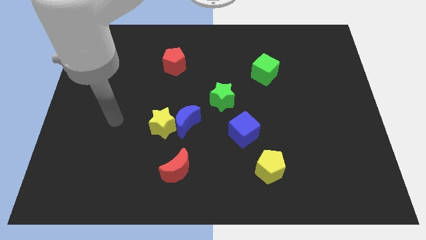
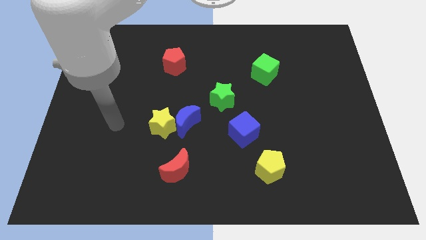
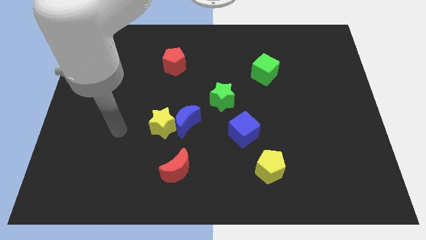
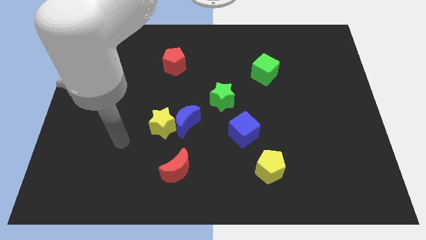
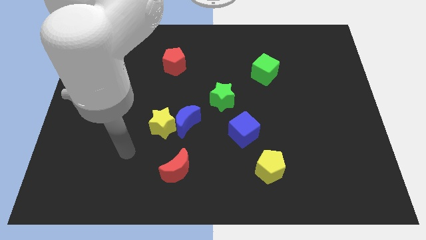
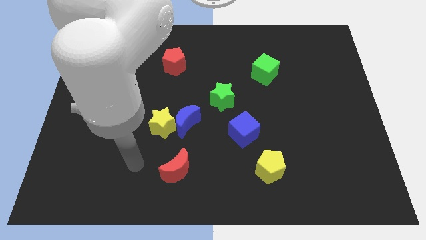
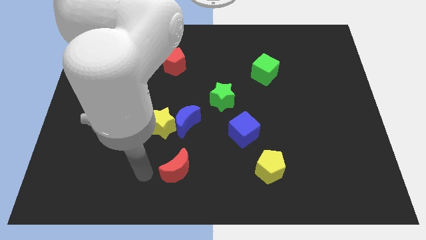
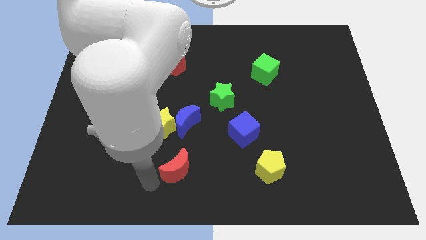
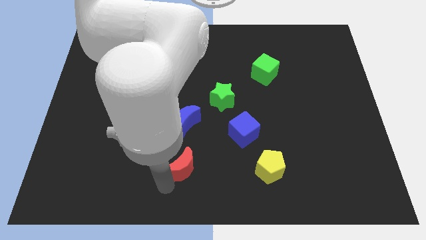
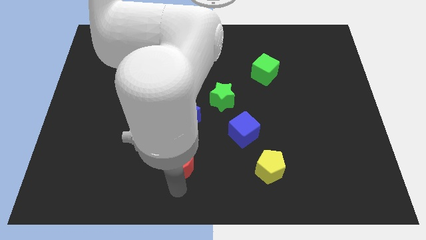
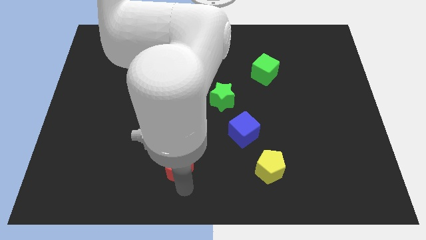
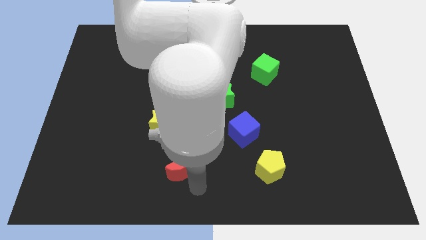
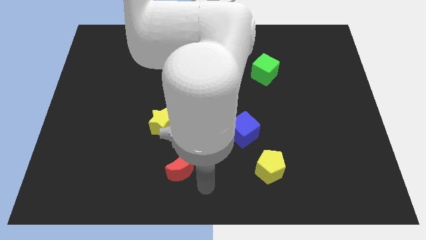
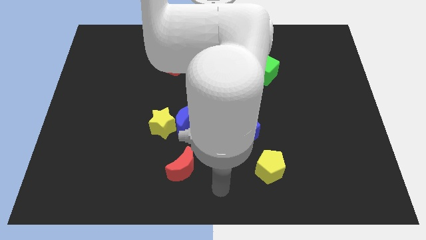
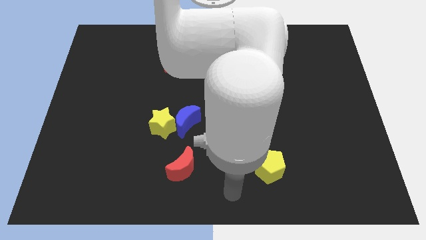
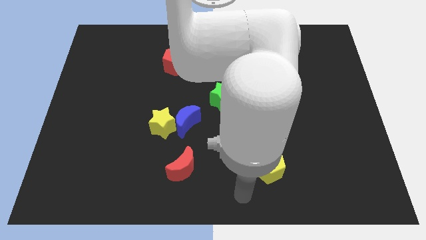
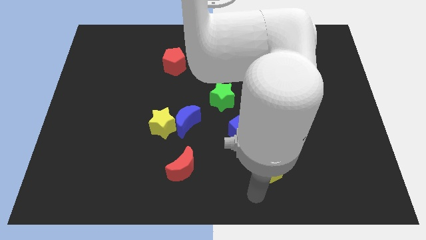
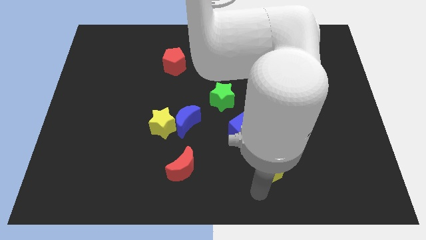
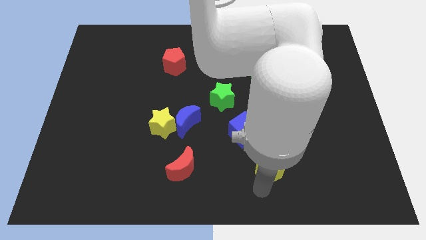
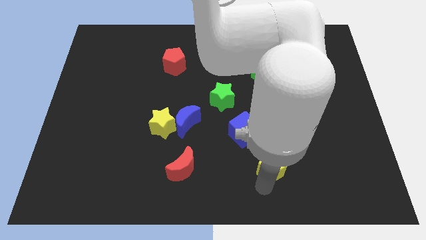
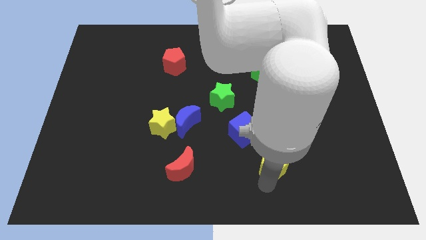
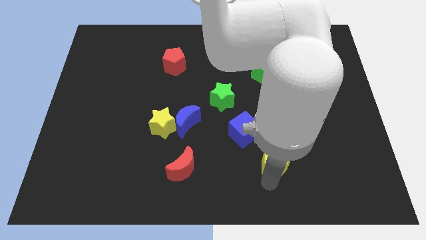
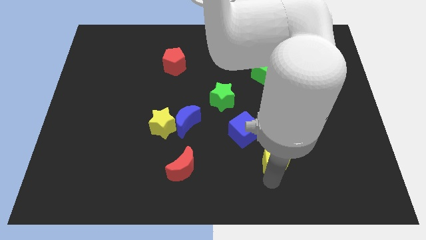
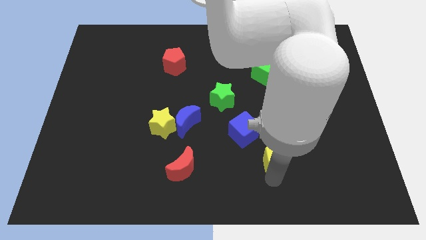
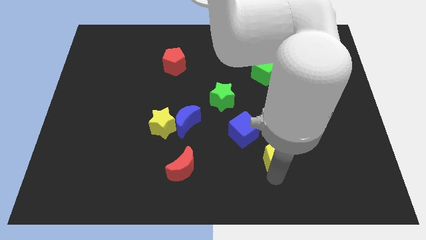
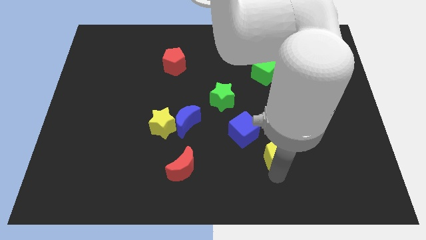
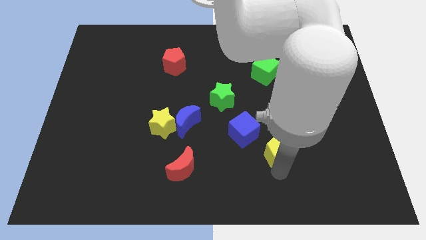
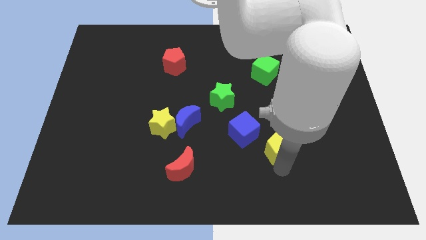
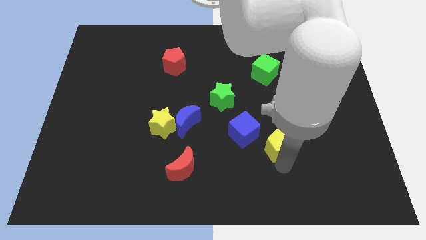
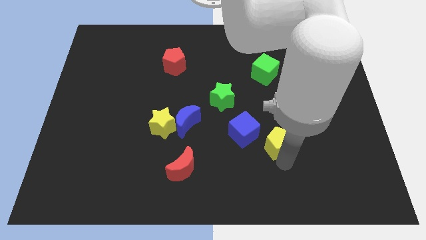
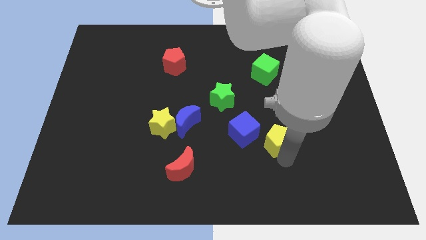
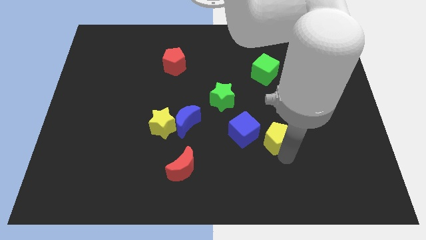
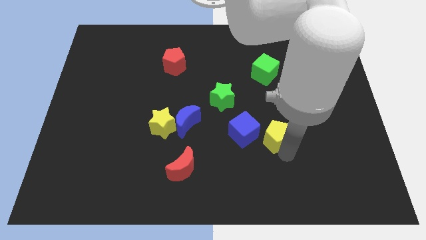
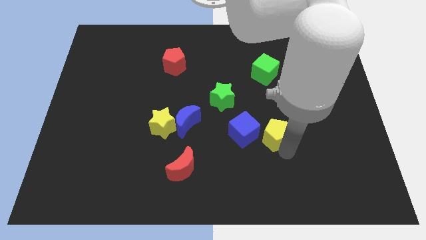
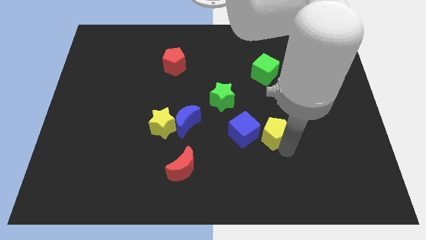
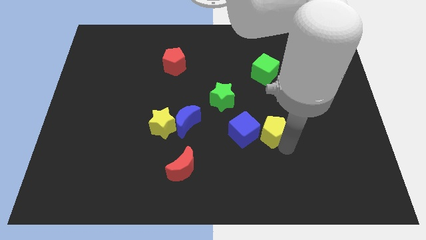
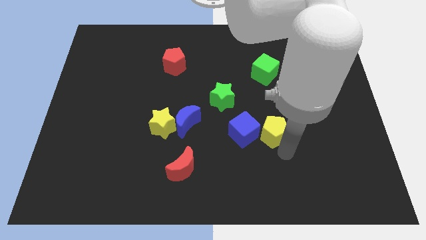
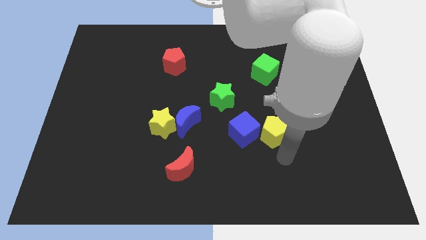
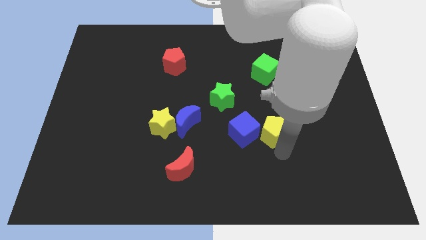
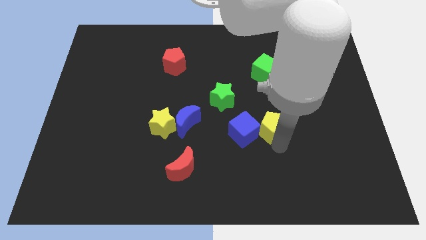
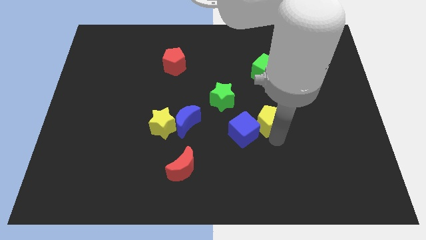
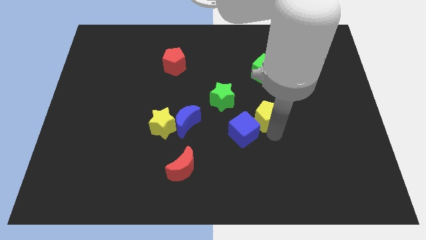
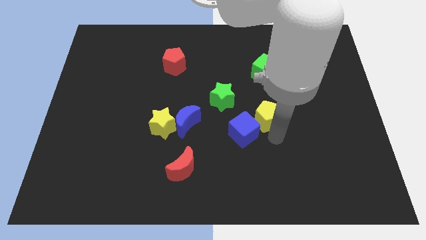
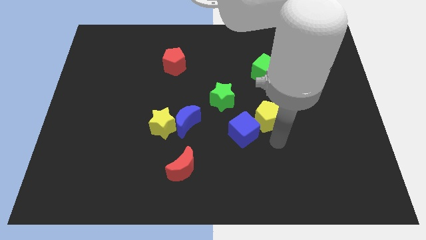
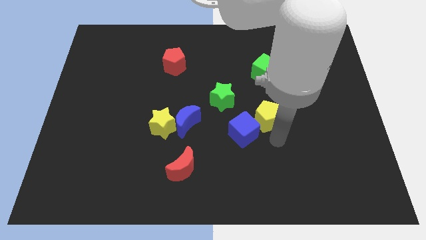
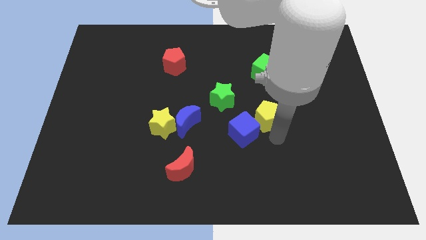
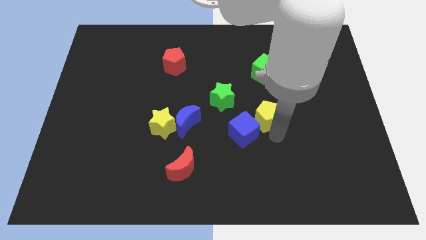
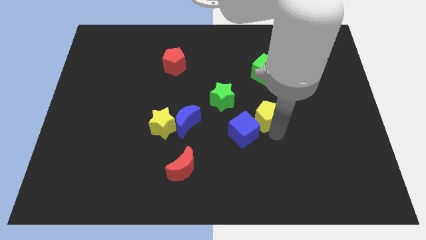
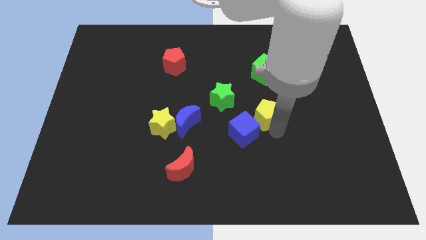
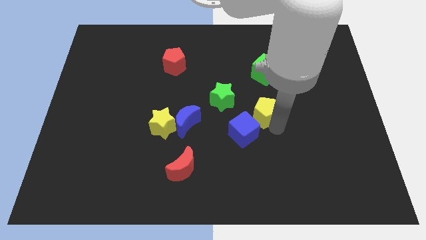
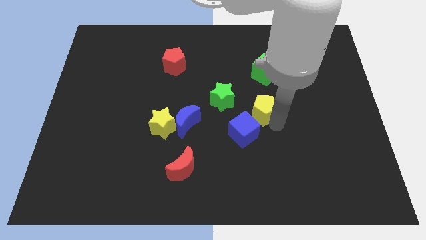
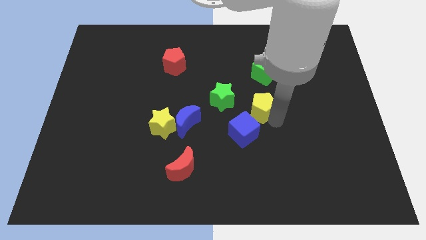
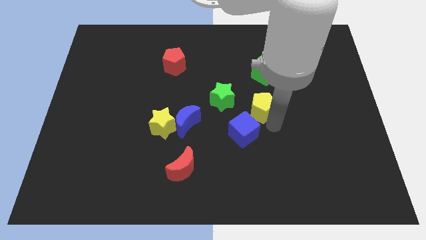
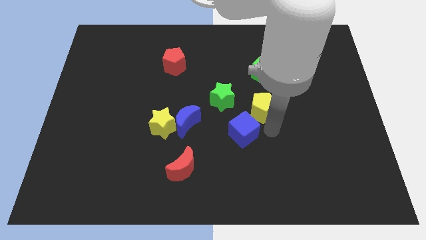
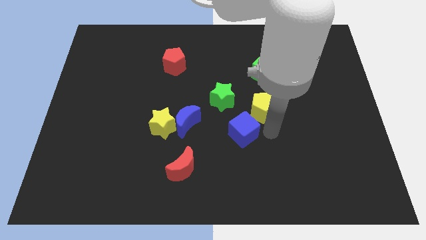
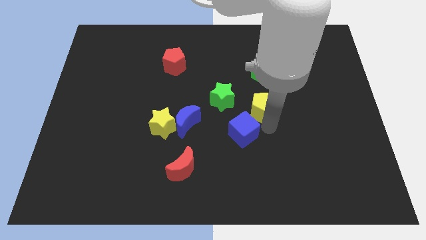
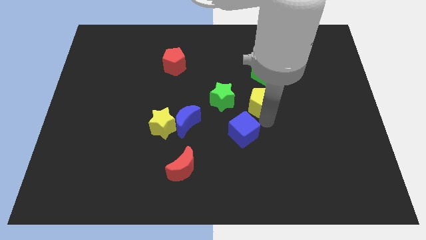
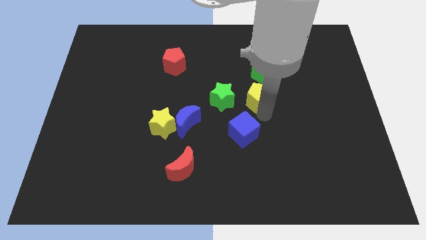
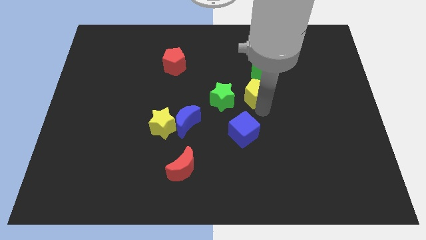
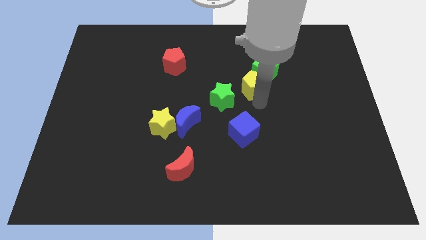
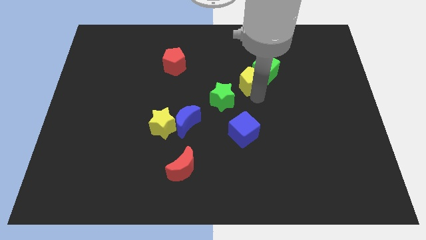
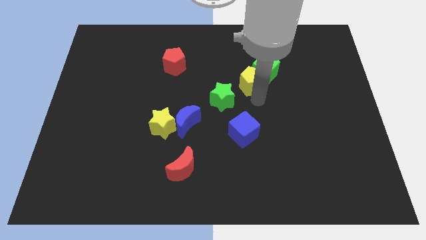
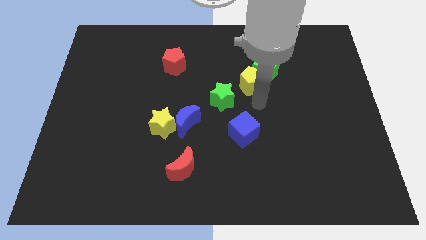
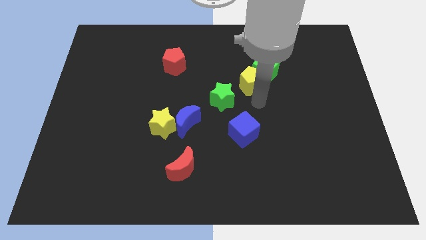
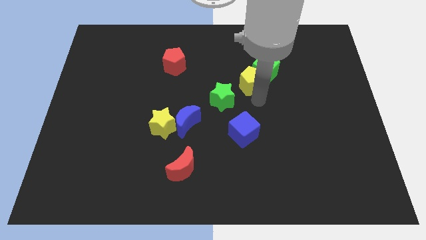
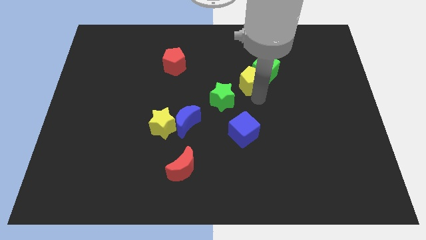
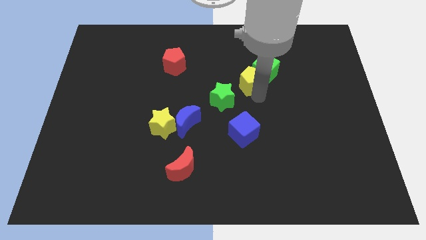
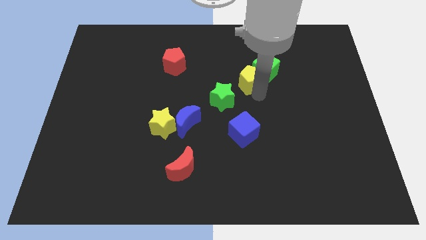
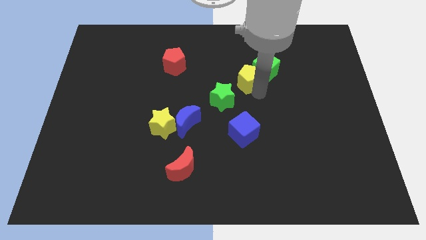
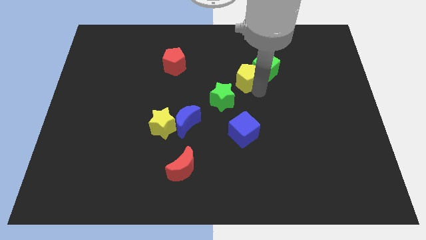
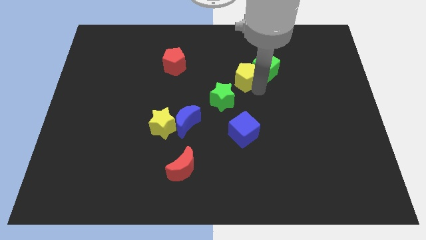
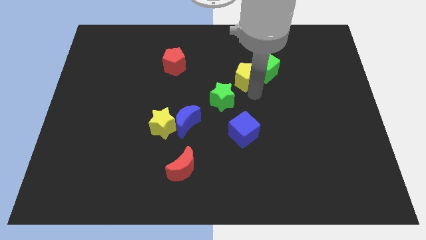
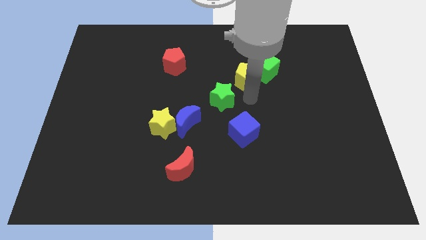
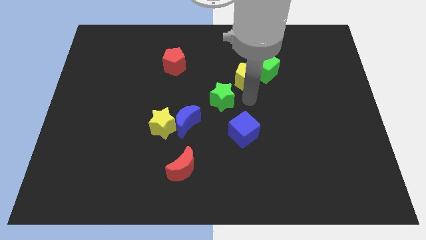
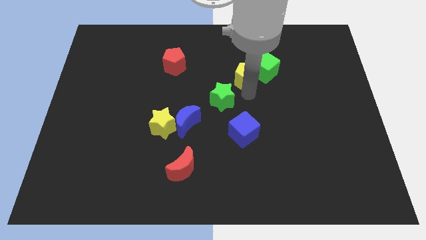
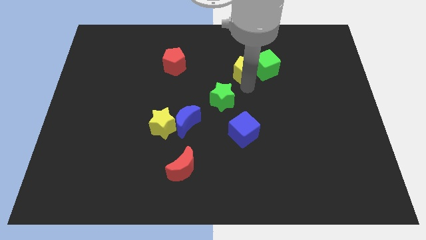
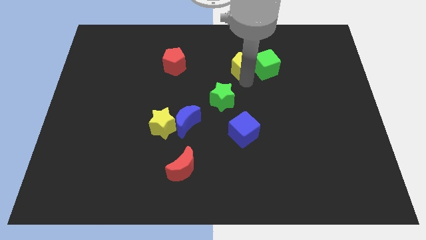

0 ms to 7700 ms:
put the yellow pentagon to the top left side of the green cube
